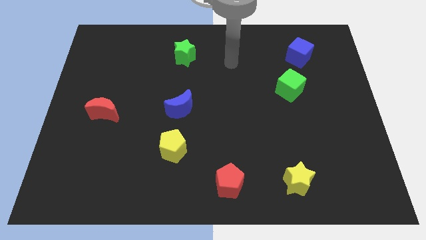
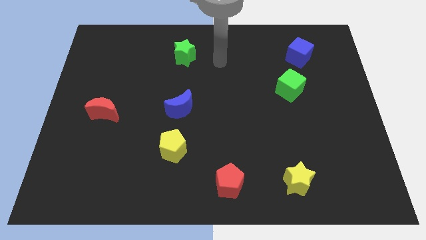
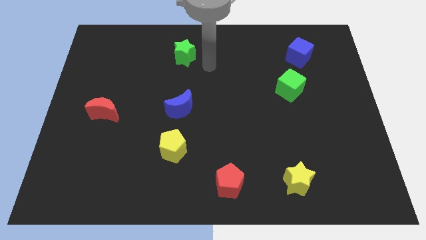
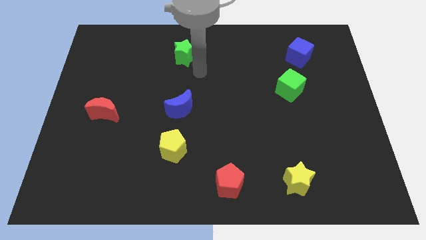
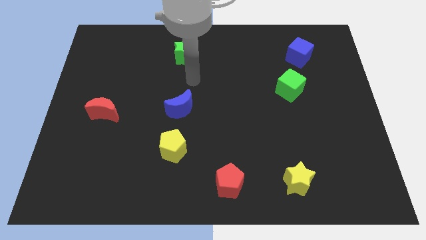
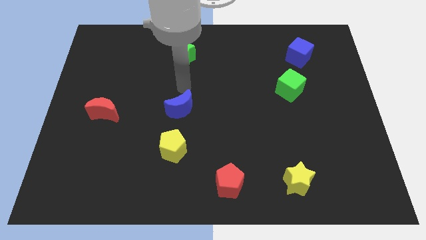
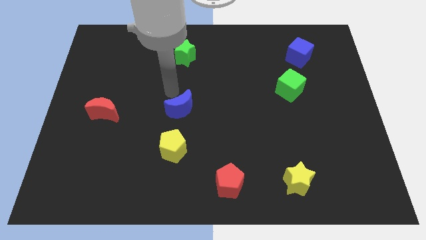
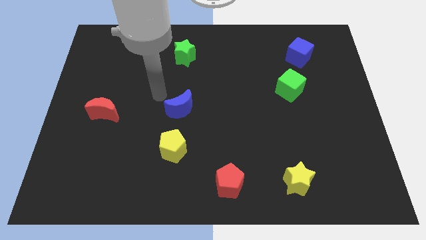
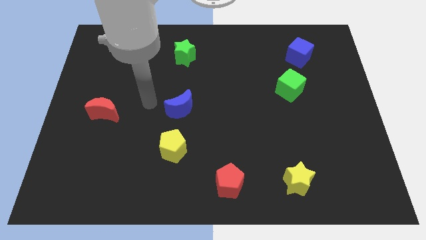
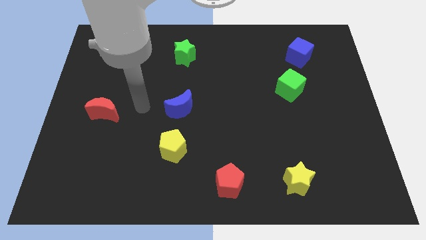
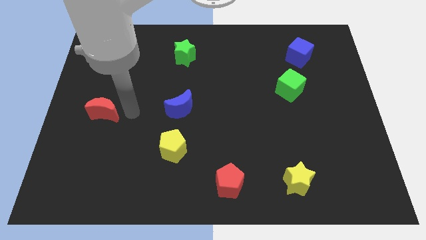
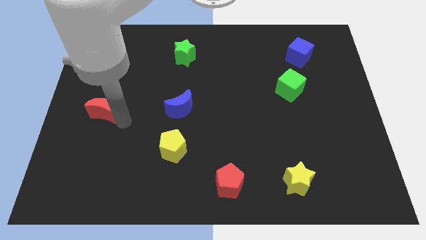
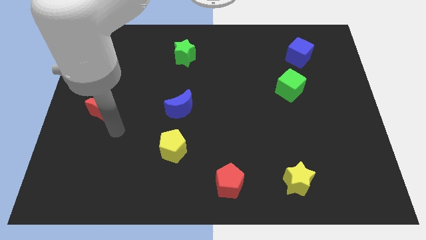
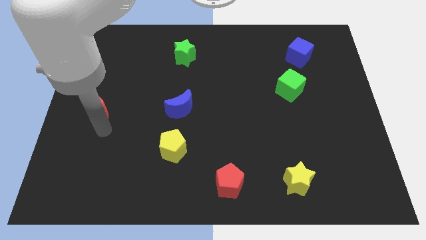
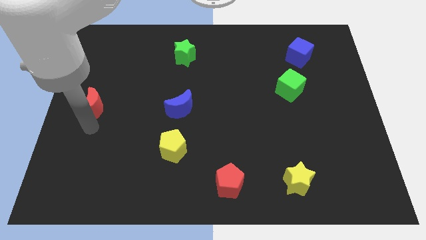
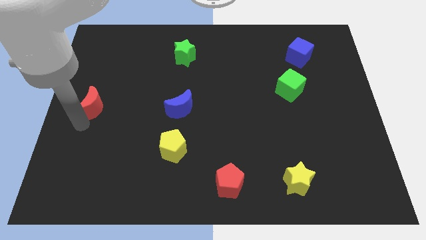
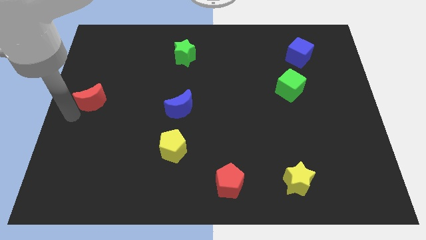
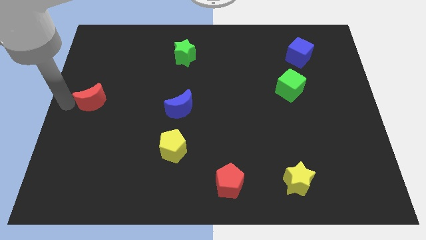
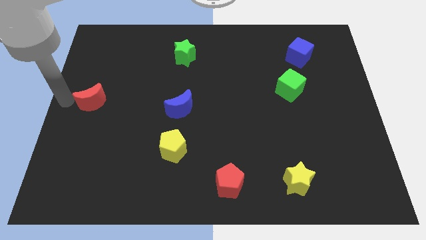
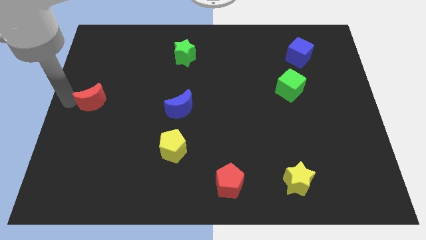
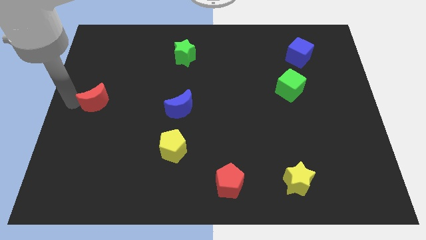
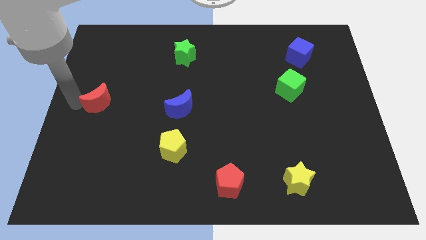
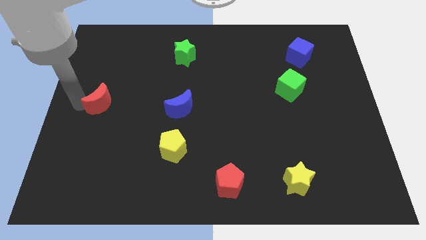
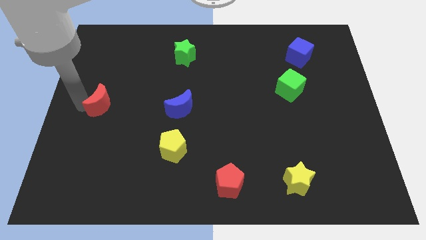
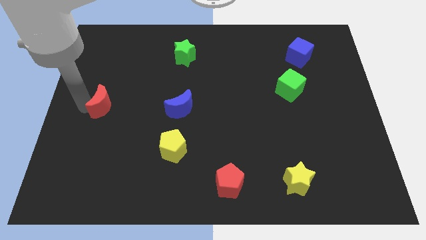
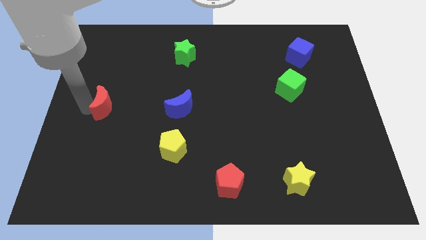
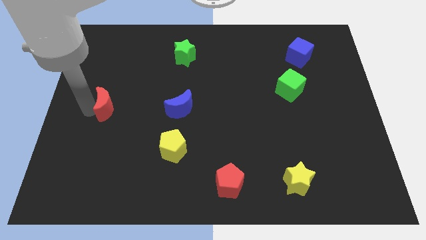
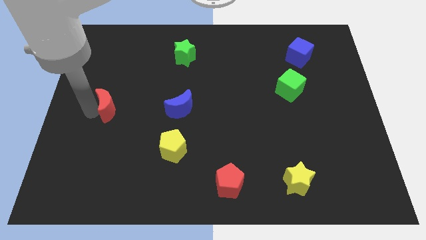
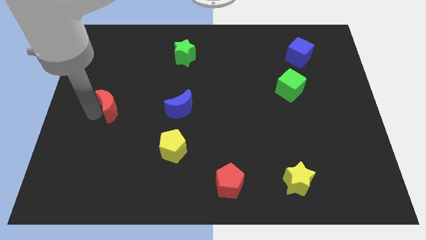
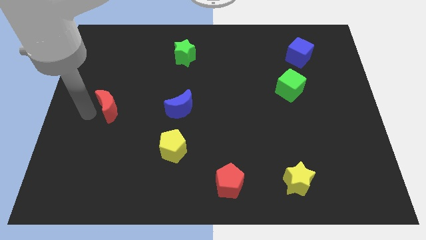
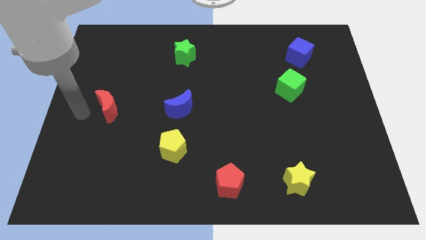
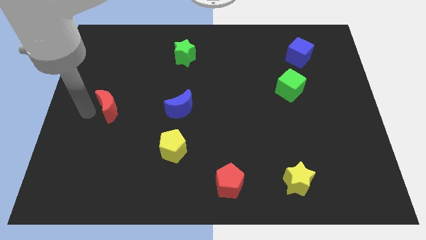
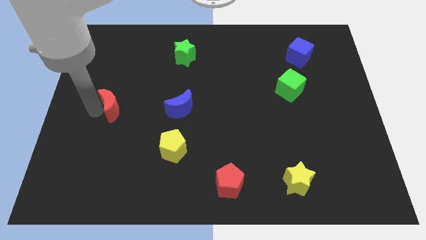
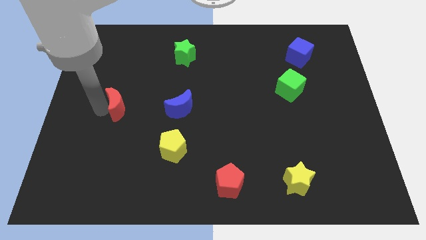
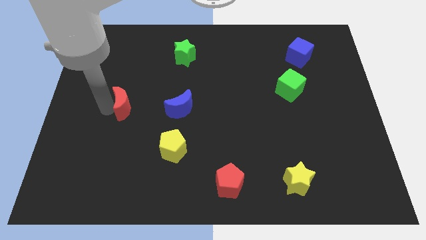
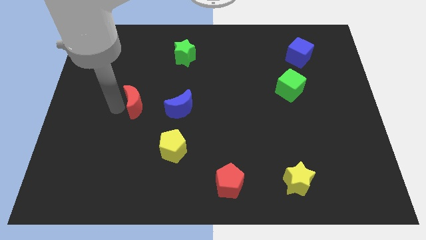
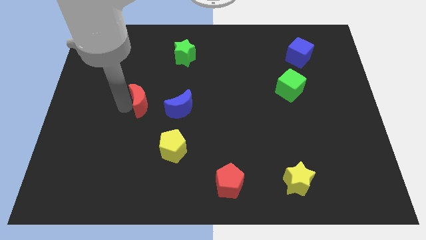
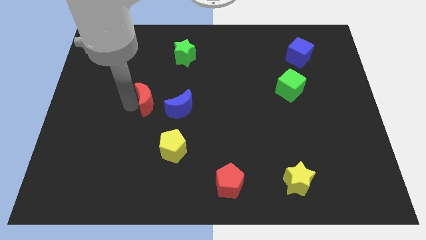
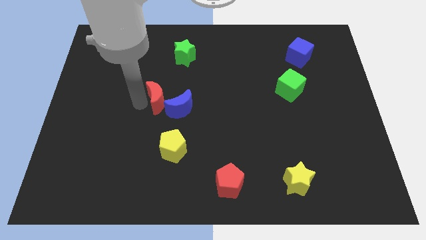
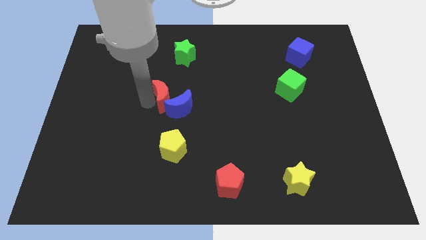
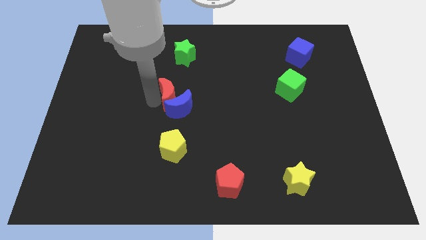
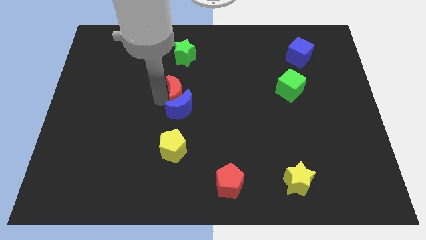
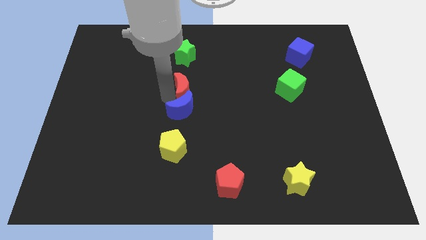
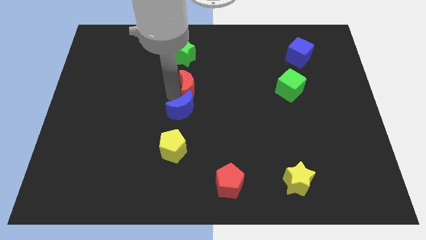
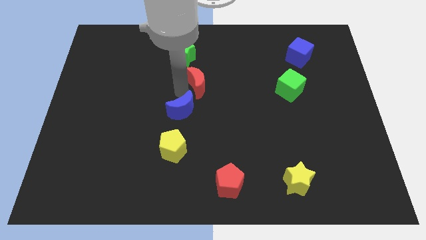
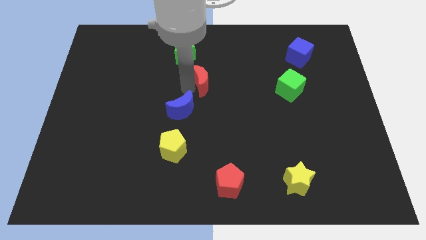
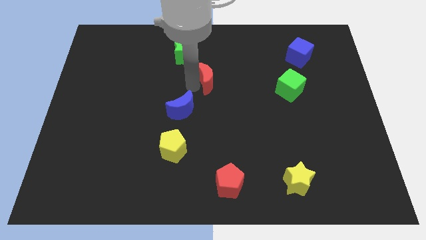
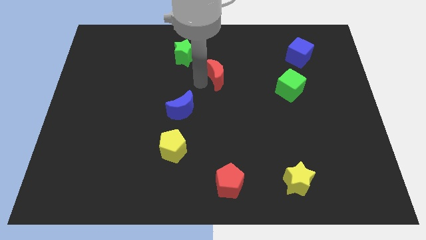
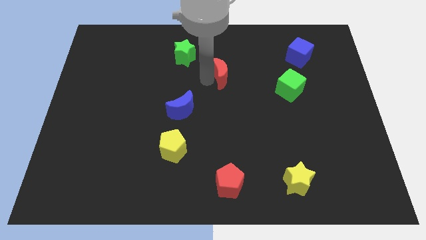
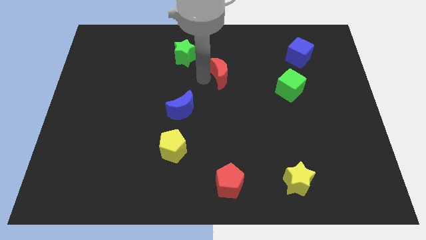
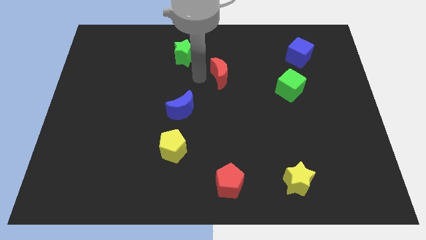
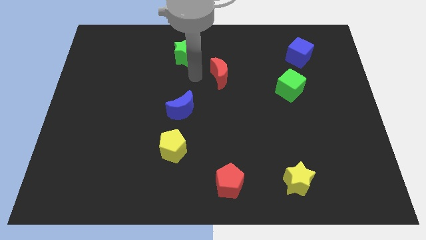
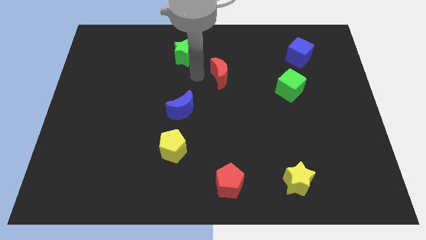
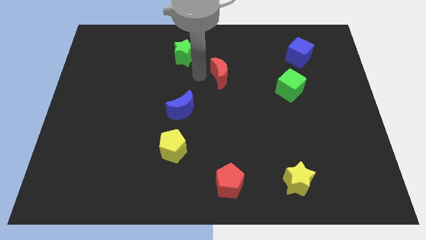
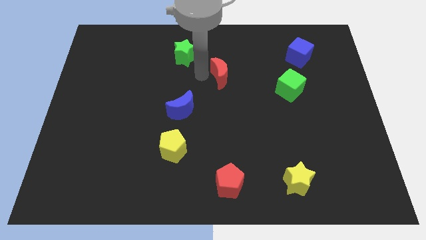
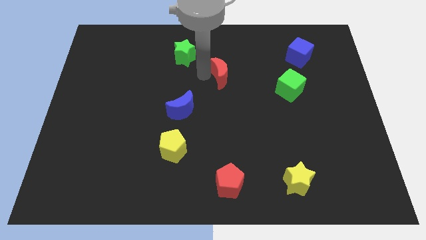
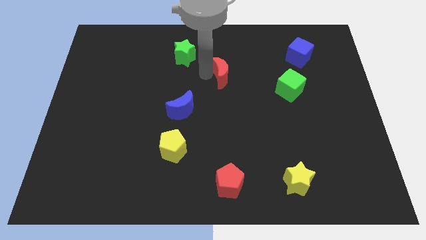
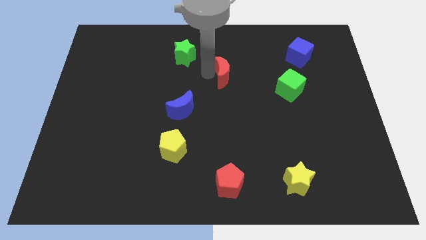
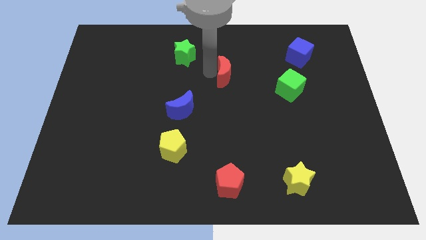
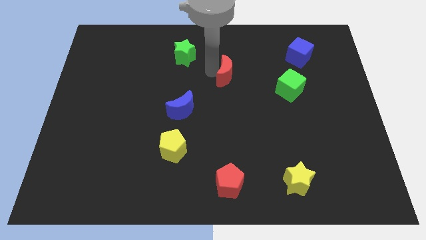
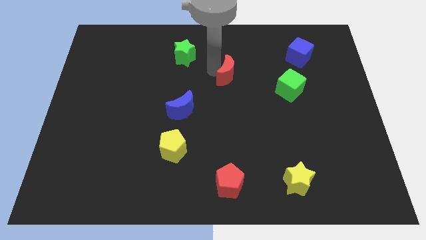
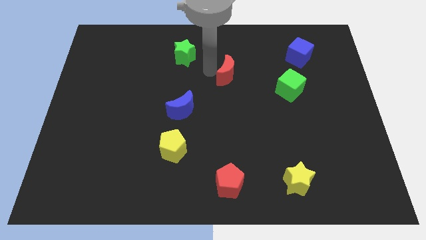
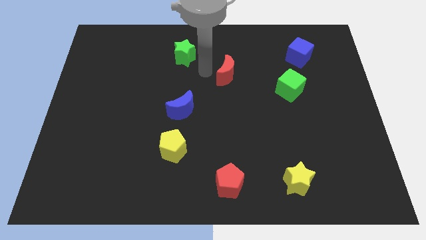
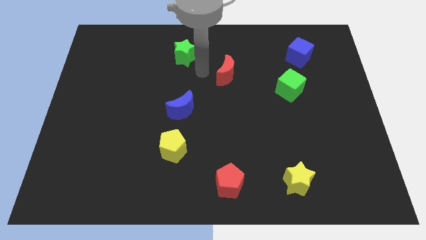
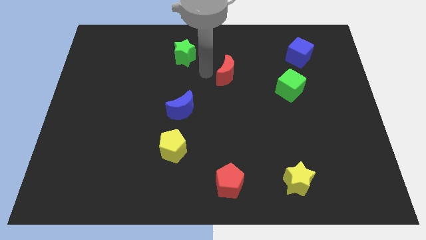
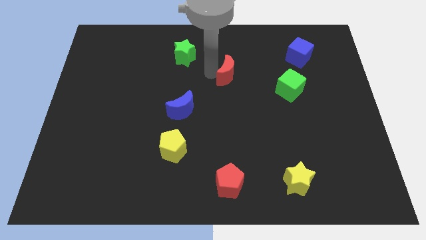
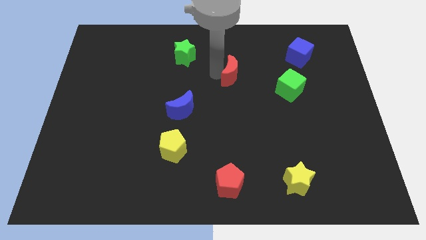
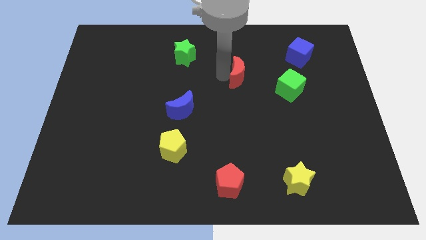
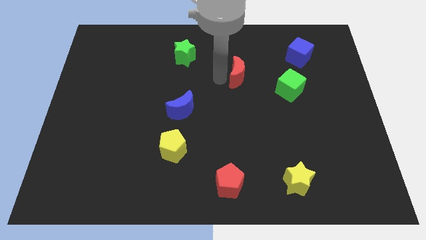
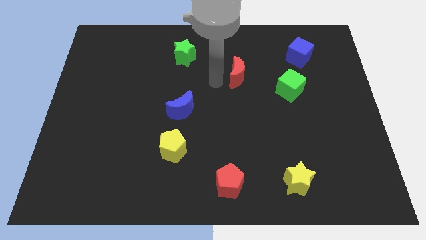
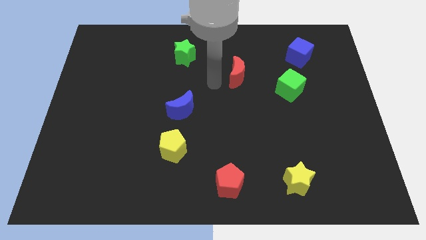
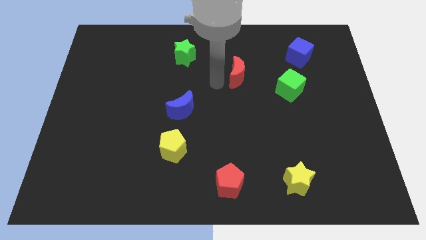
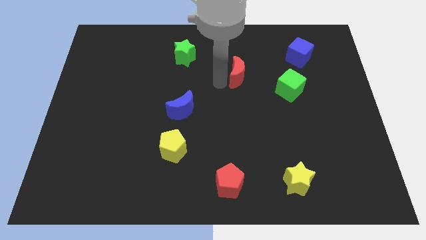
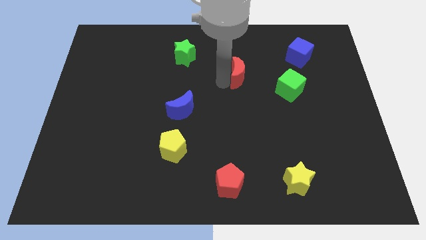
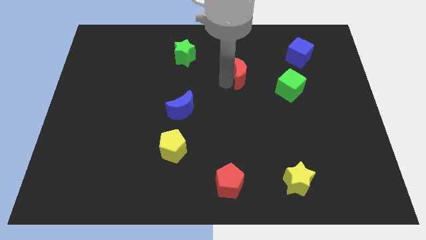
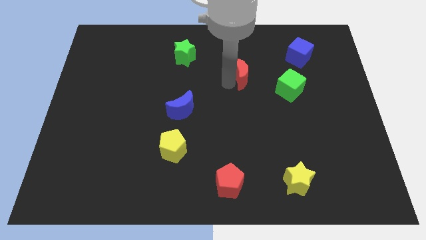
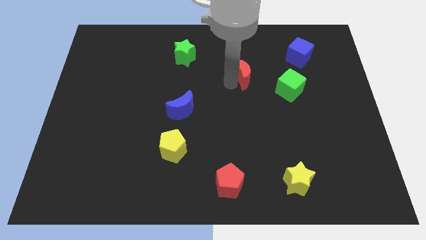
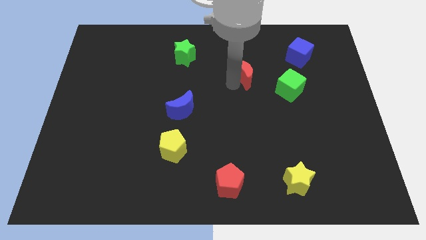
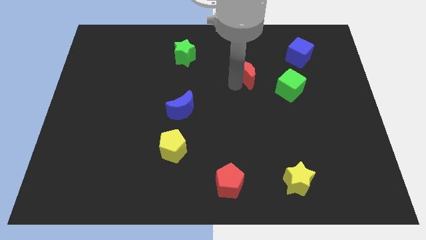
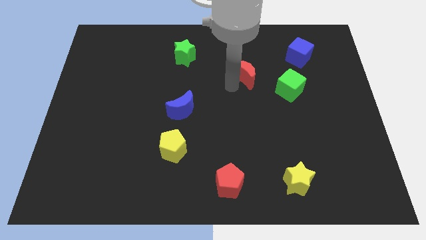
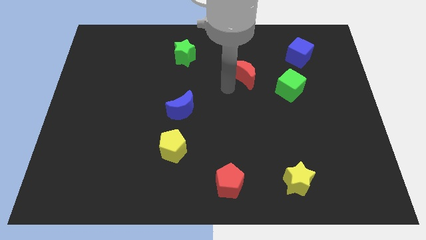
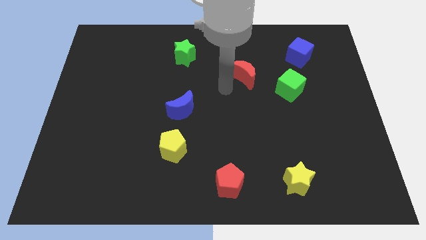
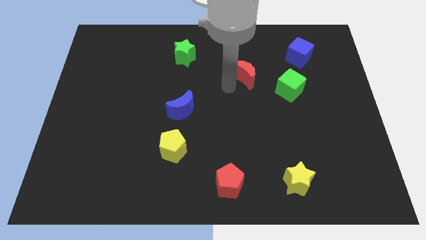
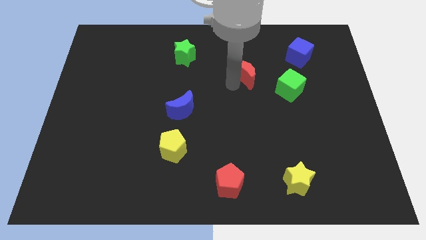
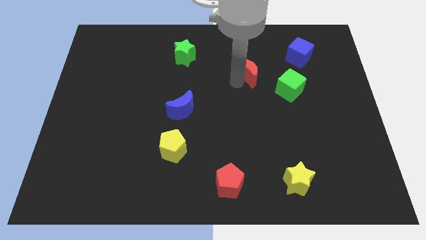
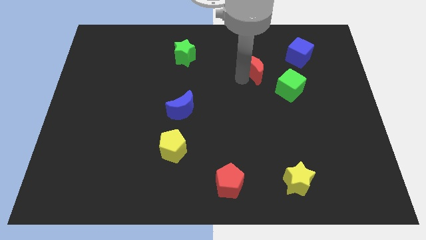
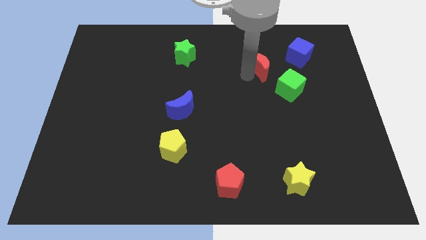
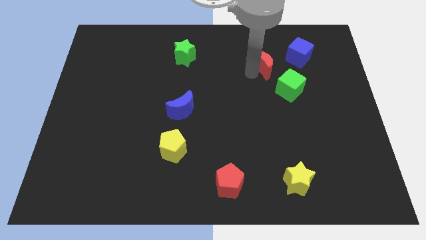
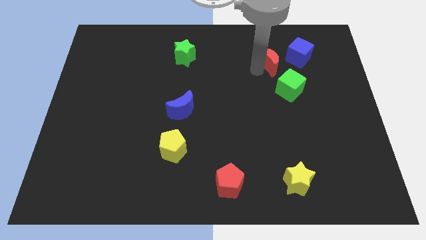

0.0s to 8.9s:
slide the red moon to the top of the green cube
